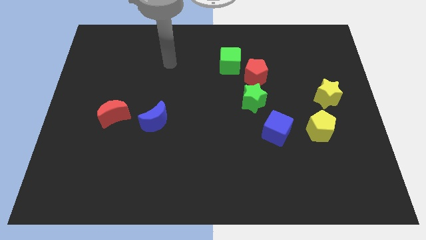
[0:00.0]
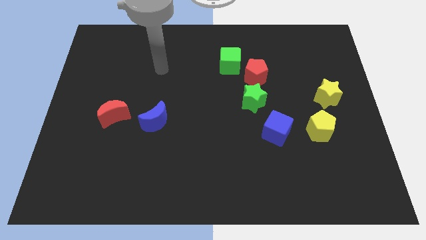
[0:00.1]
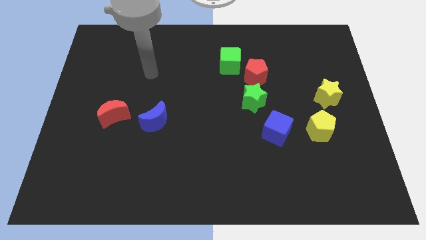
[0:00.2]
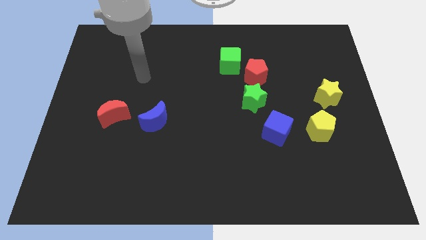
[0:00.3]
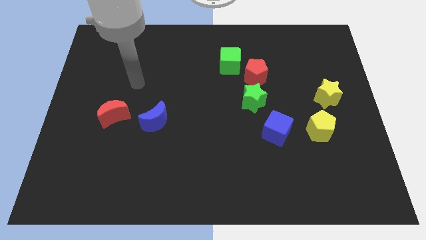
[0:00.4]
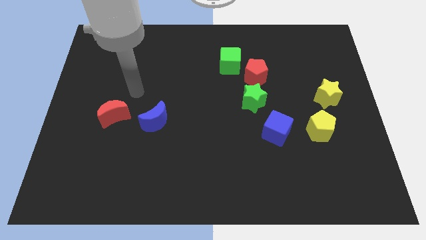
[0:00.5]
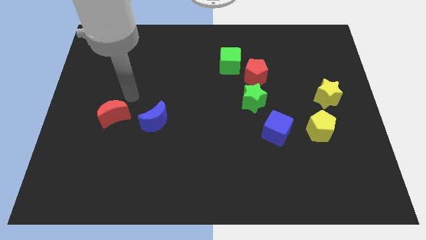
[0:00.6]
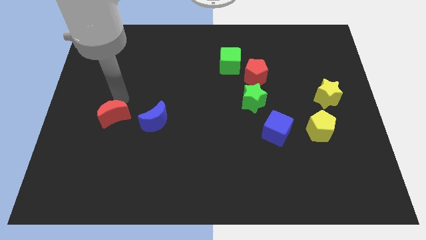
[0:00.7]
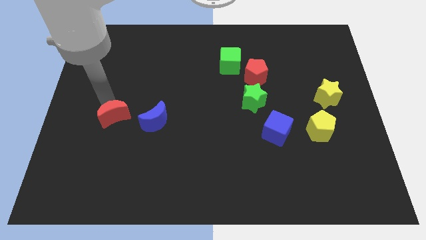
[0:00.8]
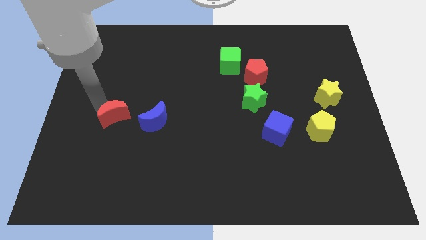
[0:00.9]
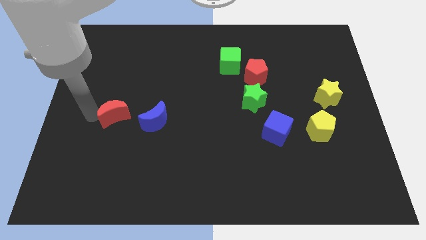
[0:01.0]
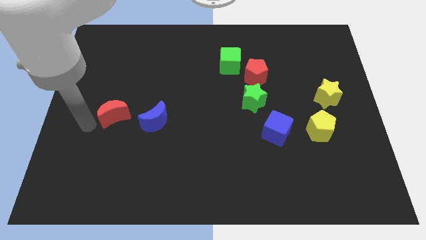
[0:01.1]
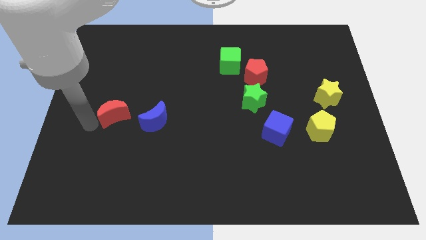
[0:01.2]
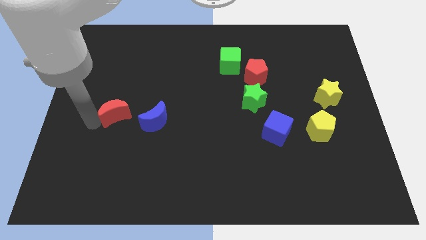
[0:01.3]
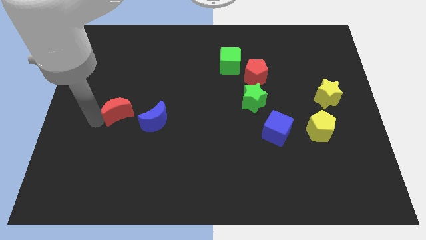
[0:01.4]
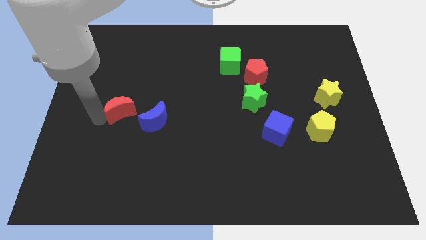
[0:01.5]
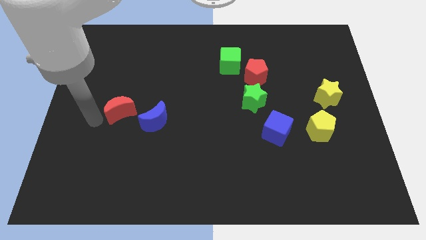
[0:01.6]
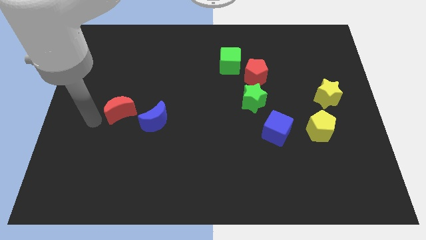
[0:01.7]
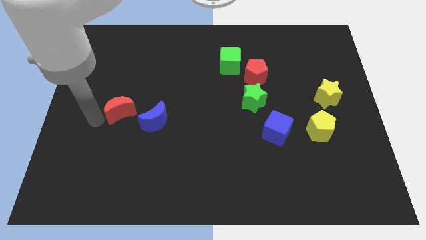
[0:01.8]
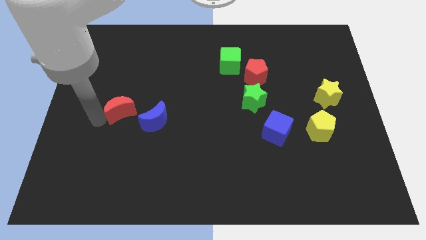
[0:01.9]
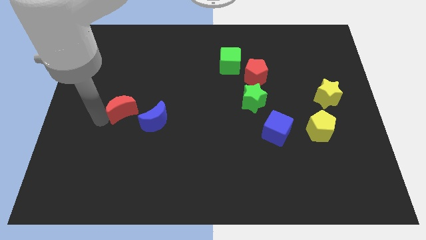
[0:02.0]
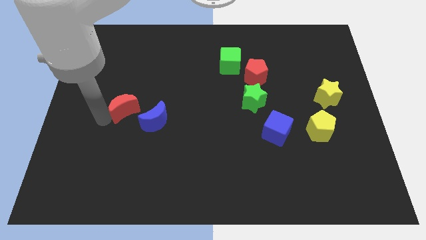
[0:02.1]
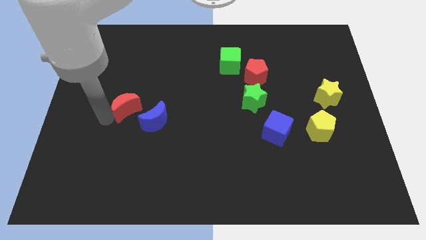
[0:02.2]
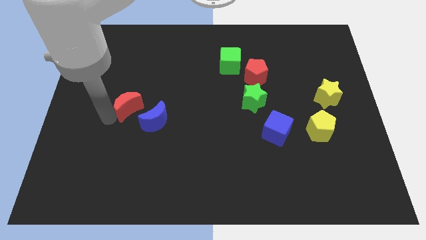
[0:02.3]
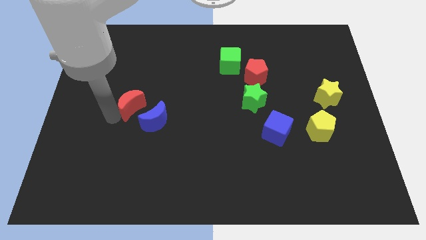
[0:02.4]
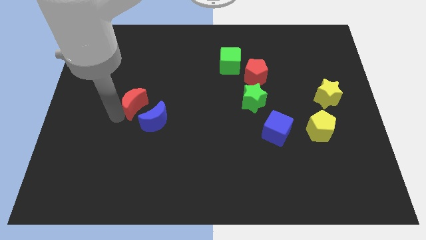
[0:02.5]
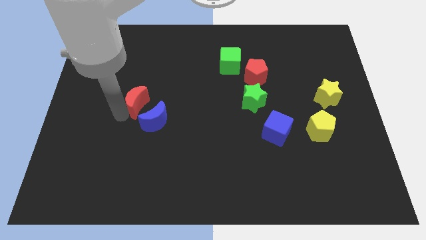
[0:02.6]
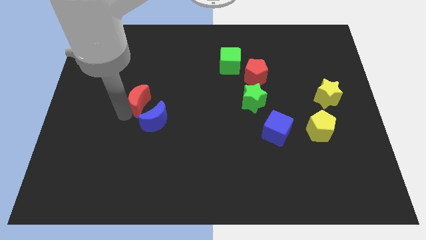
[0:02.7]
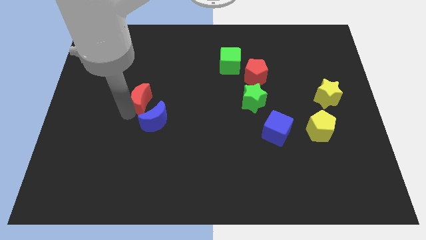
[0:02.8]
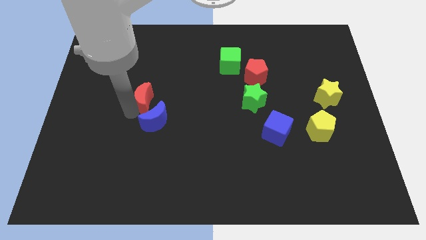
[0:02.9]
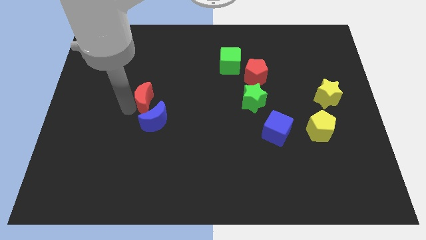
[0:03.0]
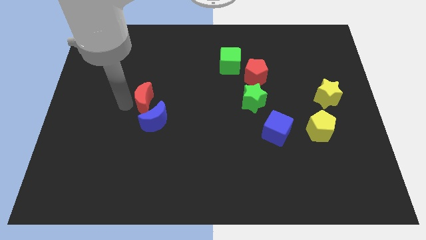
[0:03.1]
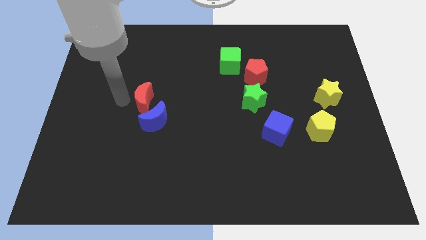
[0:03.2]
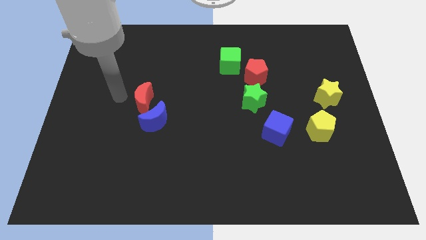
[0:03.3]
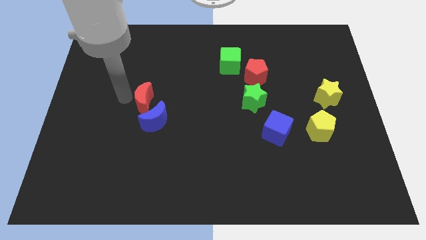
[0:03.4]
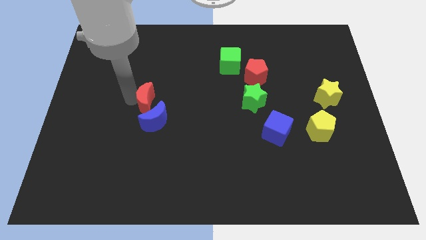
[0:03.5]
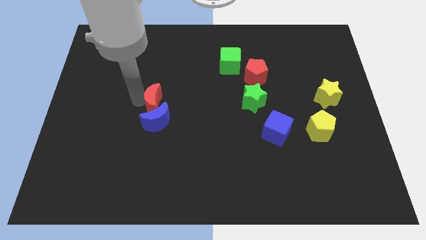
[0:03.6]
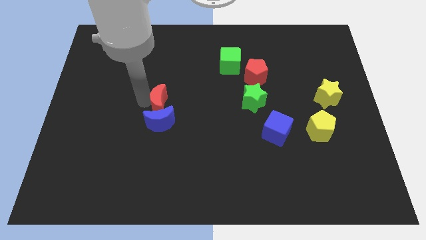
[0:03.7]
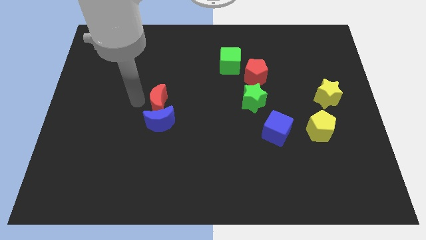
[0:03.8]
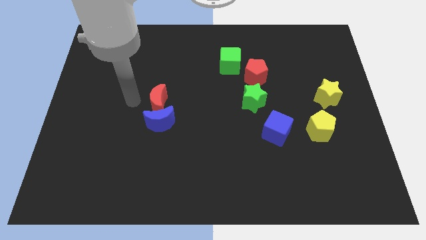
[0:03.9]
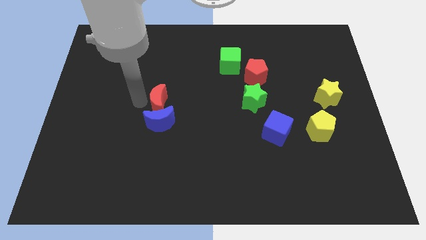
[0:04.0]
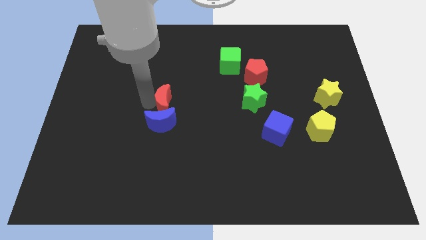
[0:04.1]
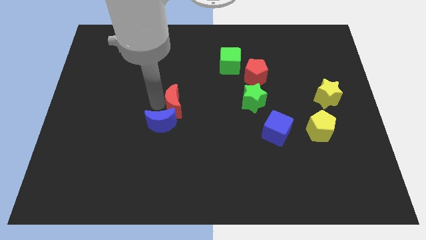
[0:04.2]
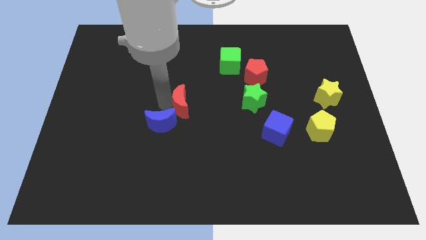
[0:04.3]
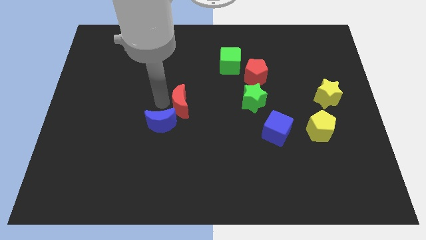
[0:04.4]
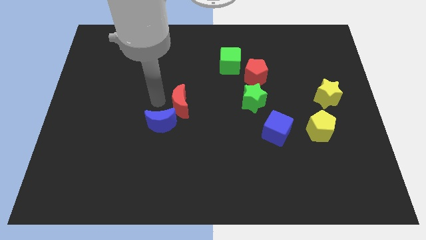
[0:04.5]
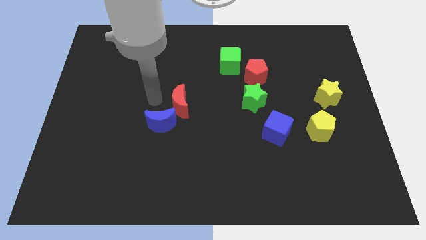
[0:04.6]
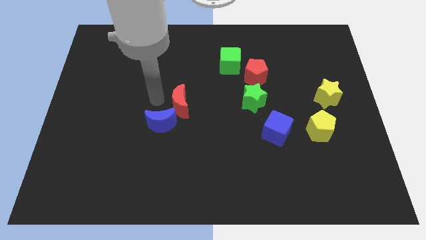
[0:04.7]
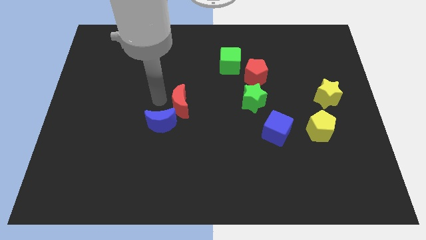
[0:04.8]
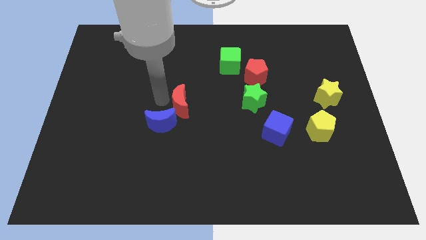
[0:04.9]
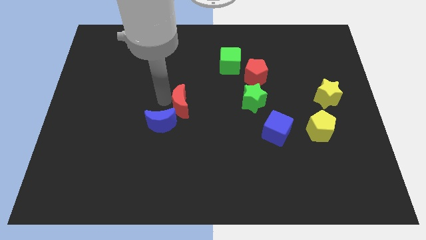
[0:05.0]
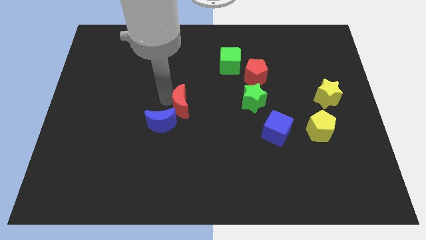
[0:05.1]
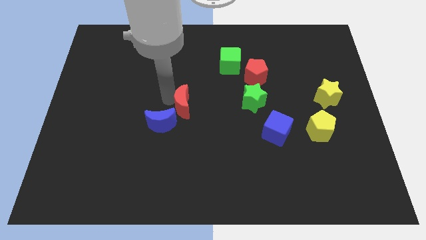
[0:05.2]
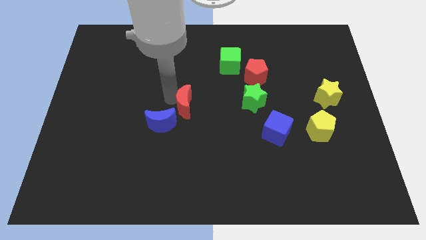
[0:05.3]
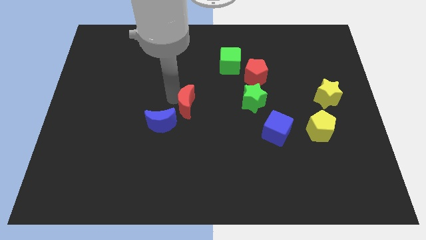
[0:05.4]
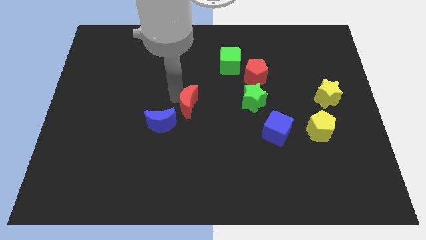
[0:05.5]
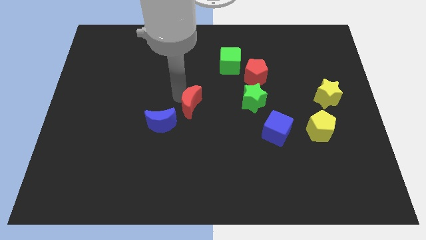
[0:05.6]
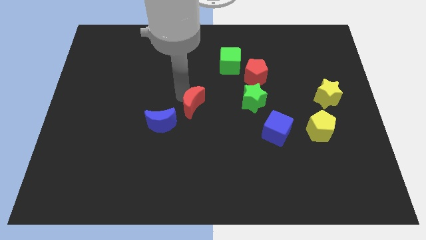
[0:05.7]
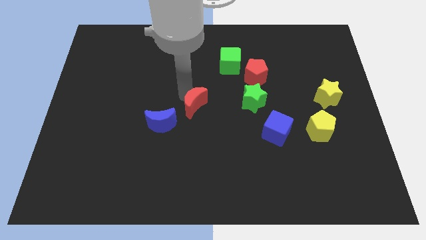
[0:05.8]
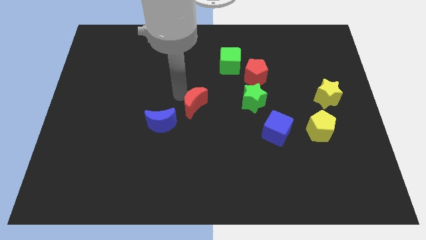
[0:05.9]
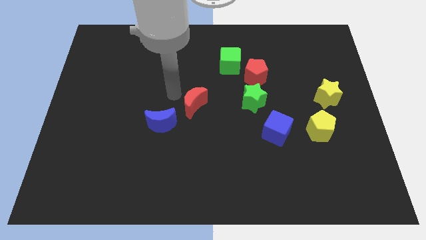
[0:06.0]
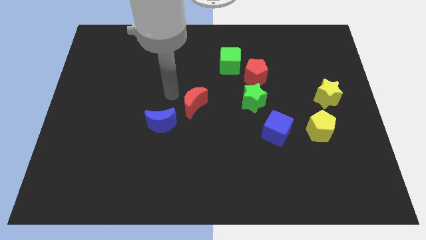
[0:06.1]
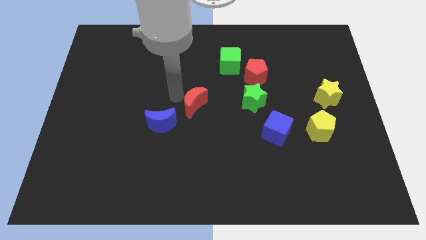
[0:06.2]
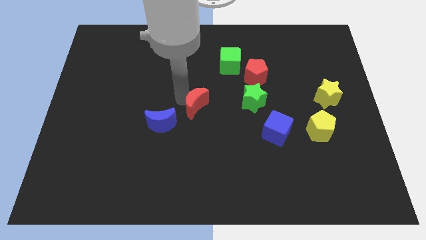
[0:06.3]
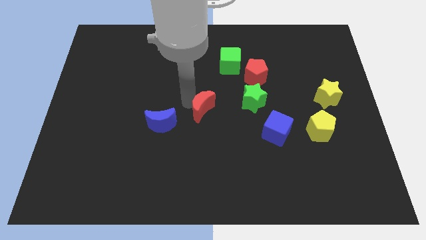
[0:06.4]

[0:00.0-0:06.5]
move the red moon to the right

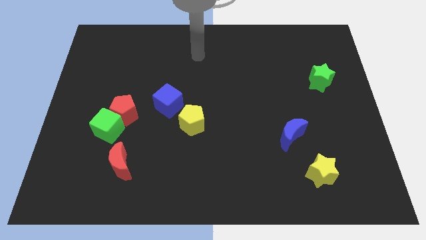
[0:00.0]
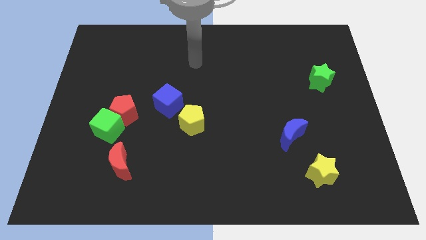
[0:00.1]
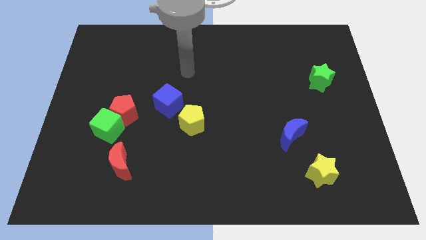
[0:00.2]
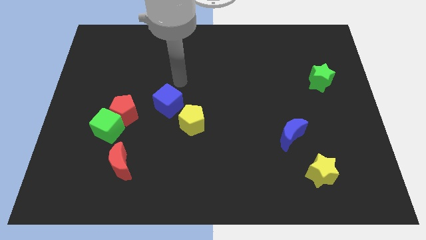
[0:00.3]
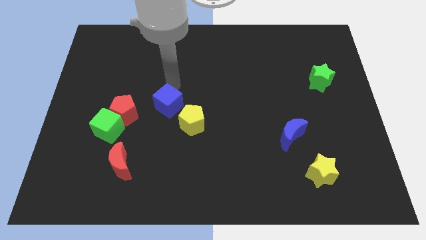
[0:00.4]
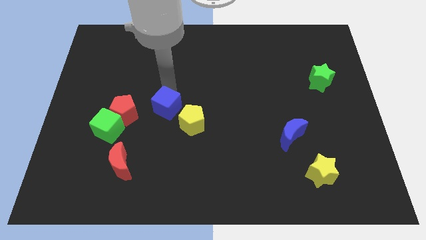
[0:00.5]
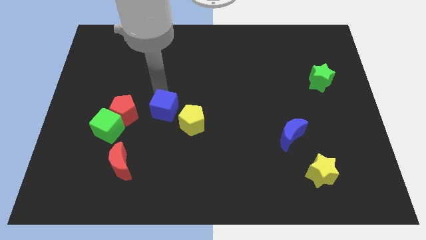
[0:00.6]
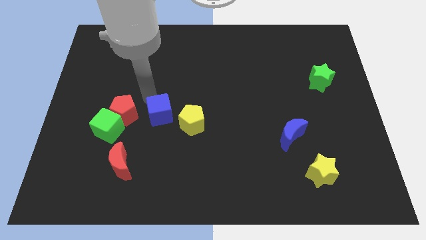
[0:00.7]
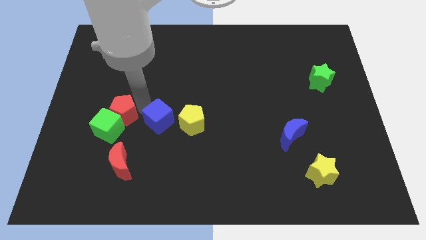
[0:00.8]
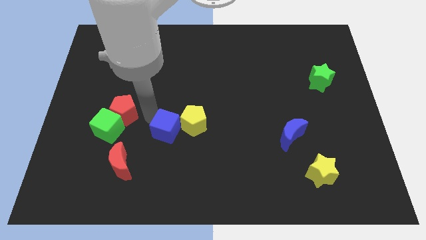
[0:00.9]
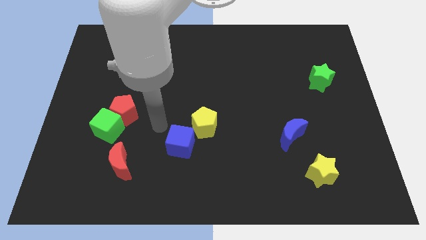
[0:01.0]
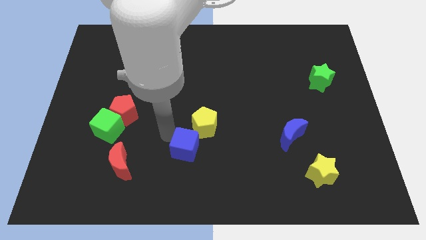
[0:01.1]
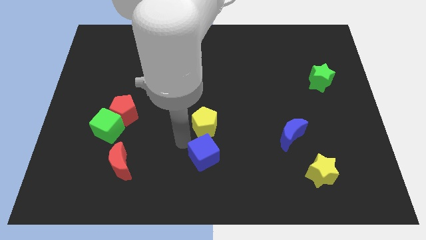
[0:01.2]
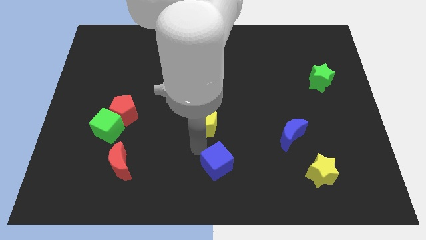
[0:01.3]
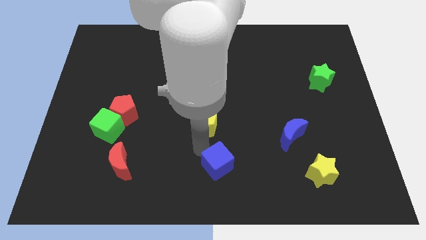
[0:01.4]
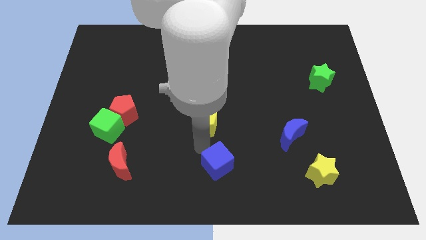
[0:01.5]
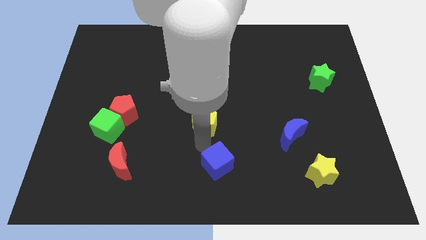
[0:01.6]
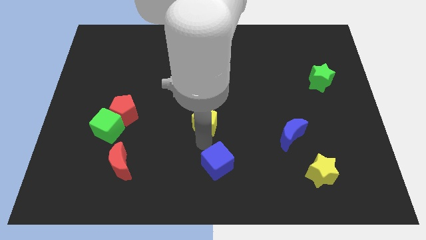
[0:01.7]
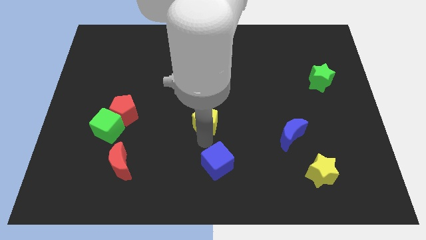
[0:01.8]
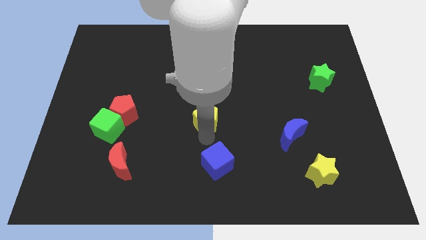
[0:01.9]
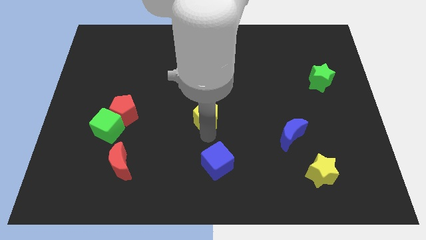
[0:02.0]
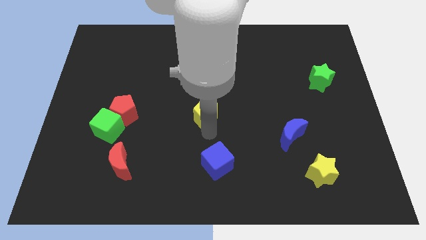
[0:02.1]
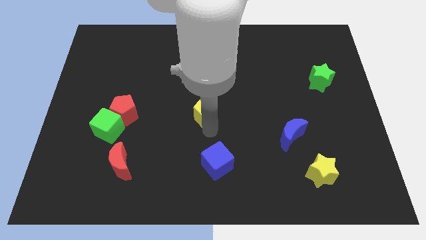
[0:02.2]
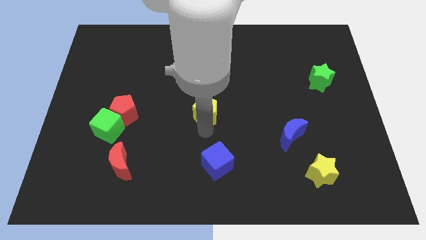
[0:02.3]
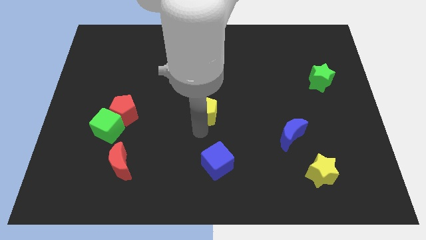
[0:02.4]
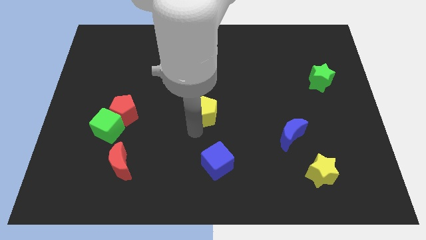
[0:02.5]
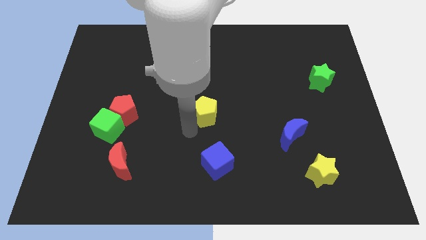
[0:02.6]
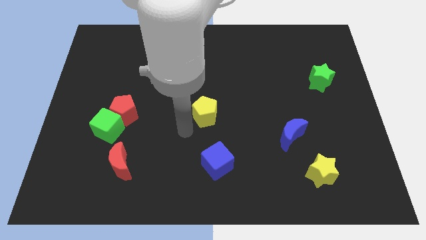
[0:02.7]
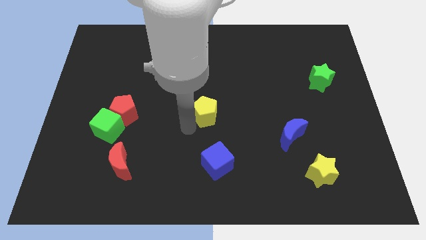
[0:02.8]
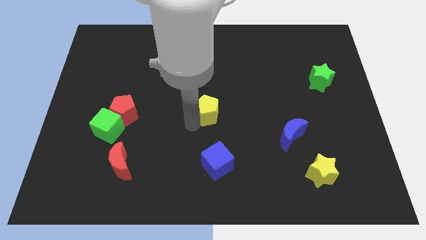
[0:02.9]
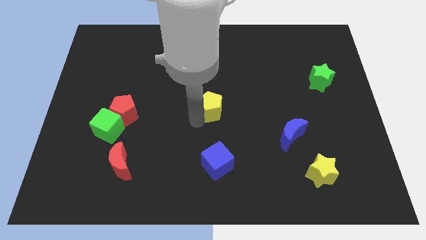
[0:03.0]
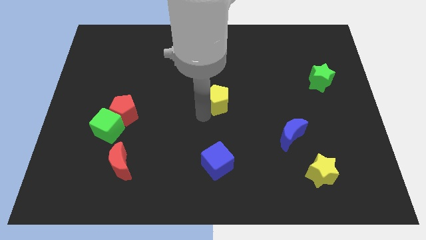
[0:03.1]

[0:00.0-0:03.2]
move the yellow pentagon upwards and then to the right a bit
